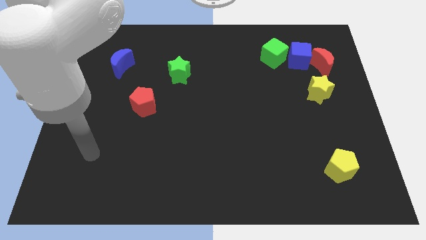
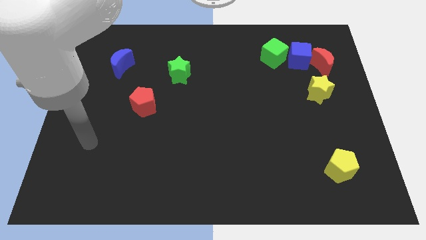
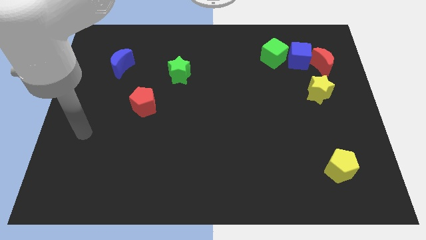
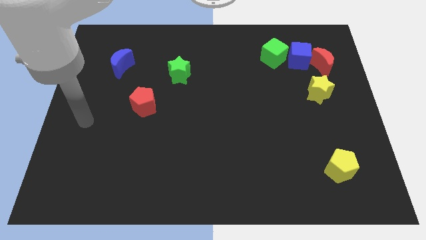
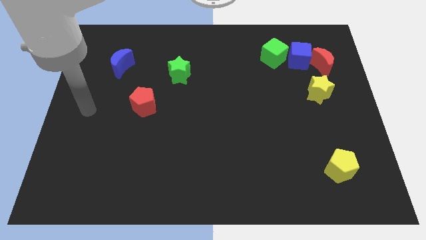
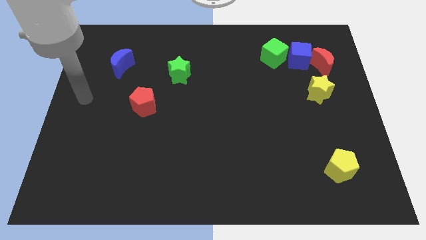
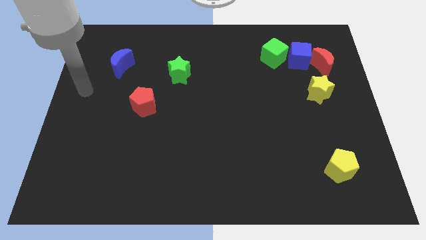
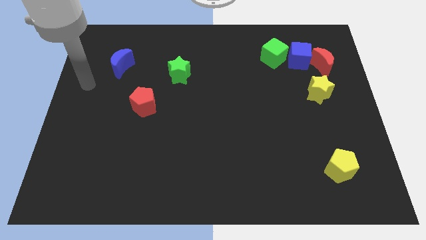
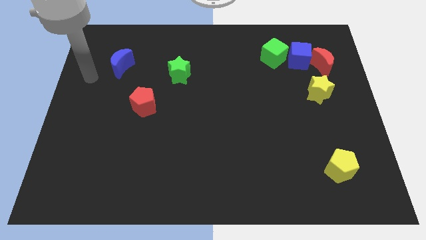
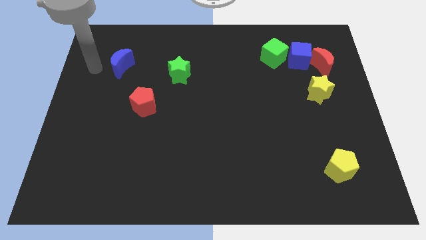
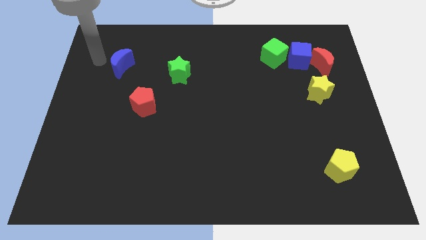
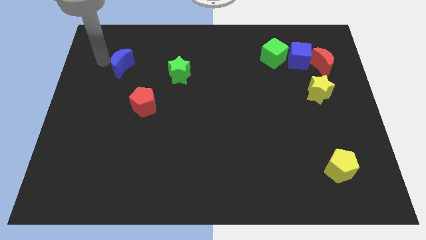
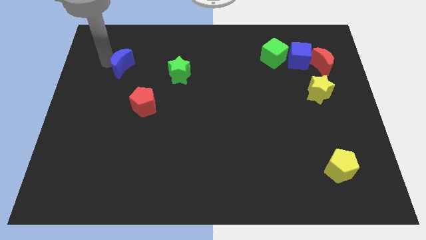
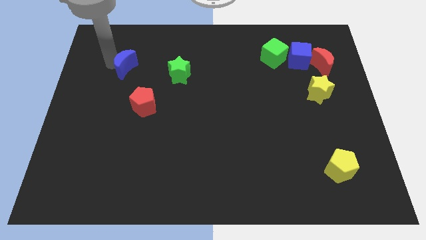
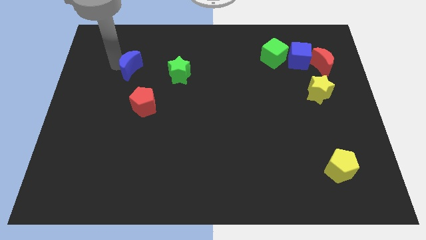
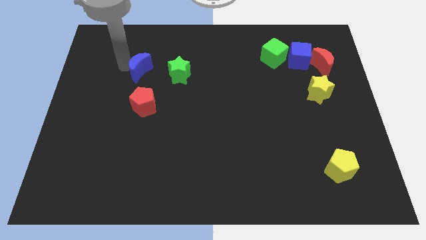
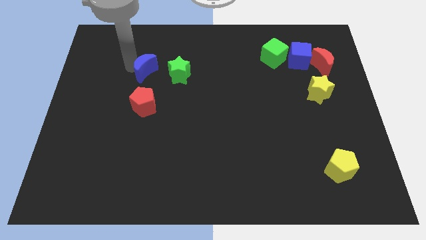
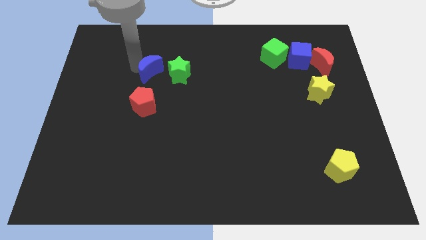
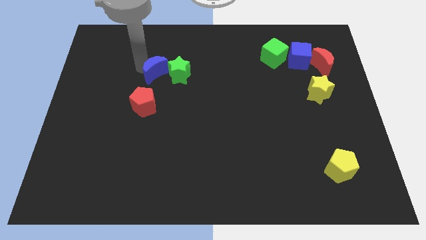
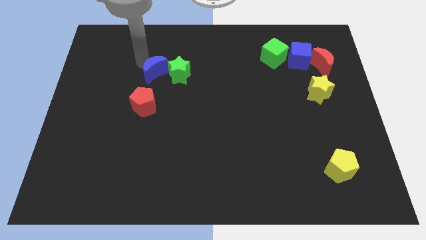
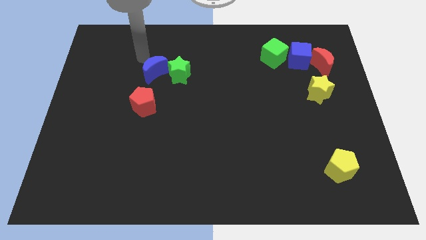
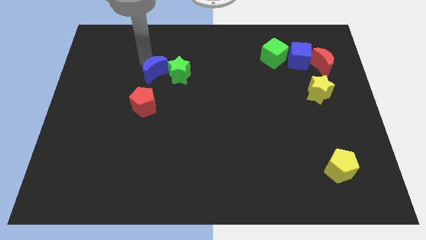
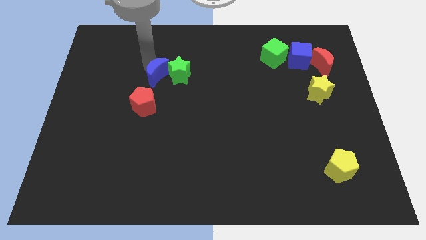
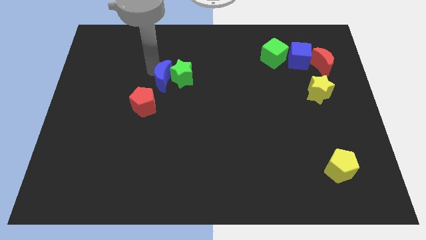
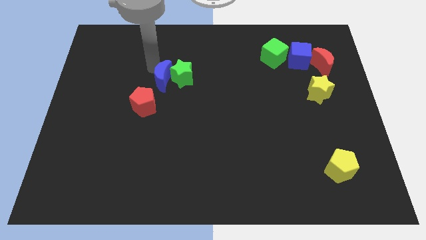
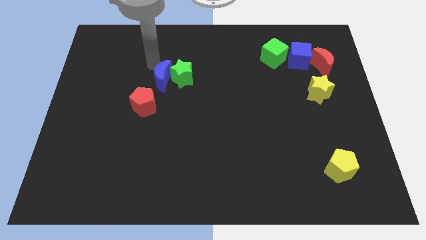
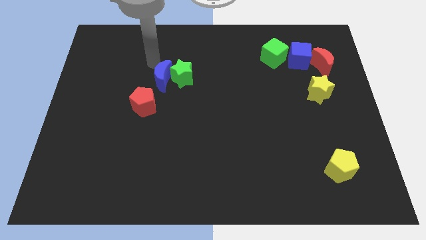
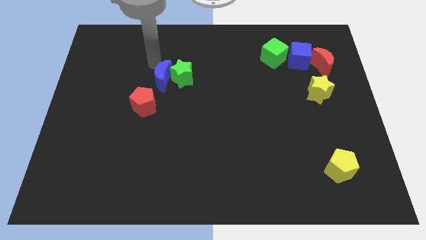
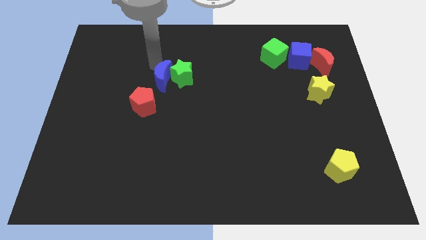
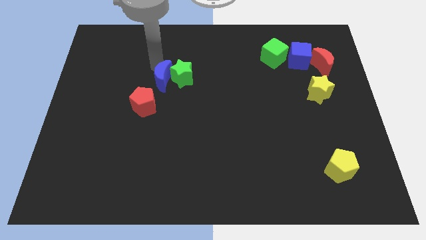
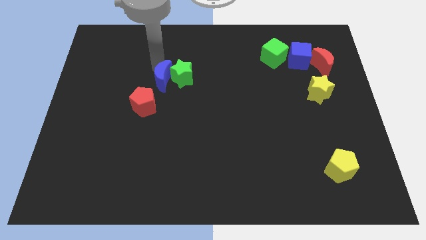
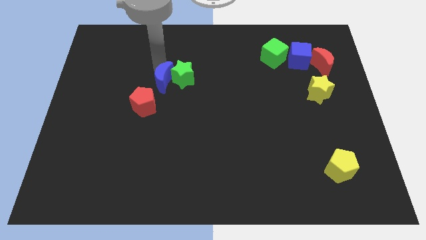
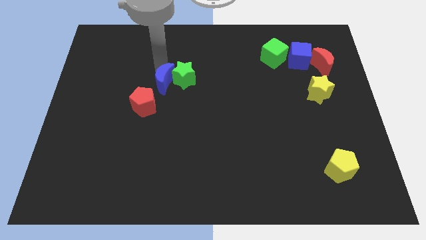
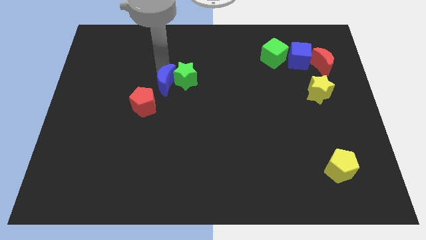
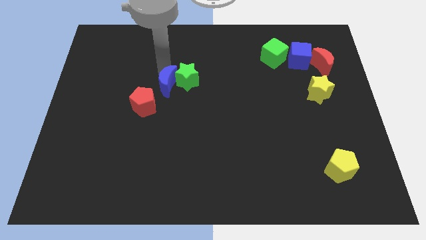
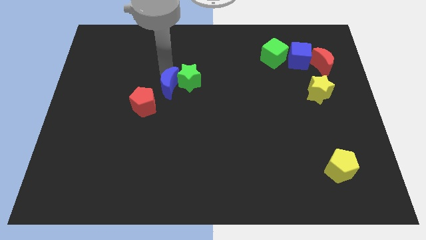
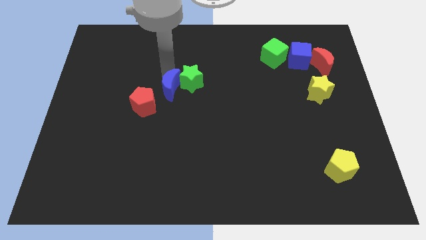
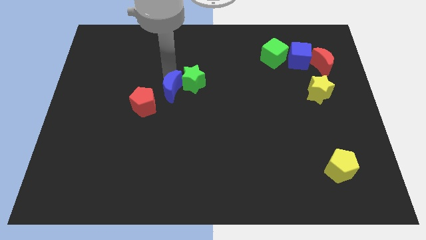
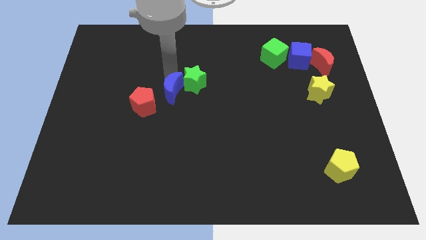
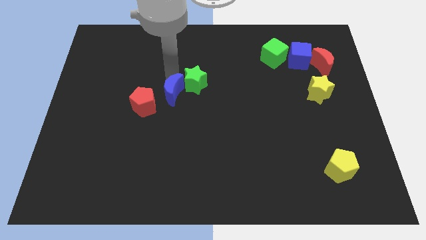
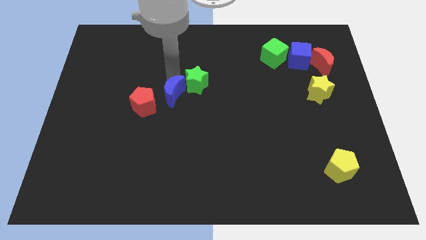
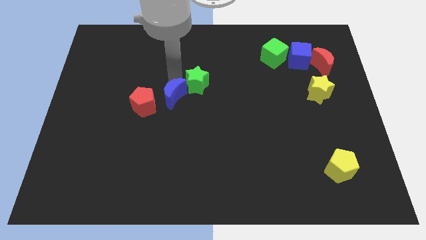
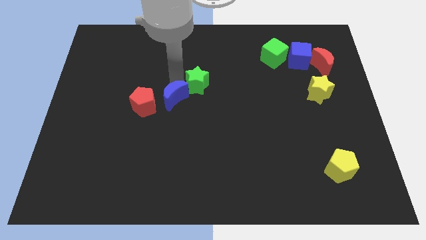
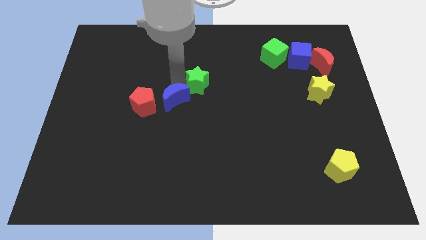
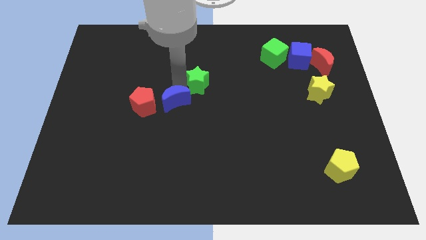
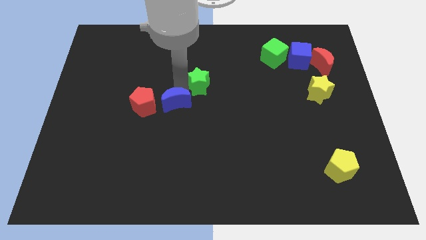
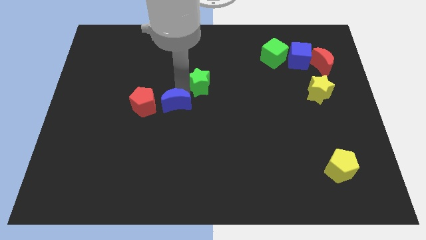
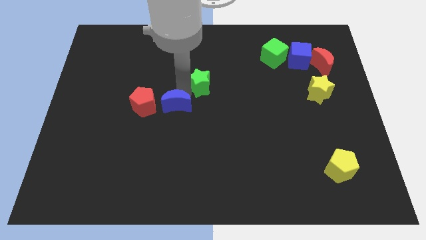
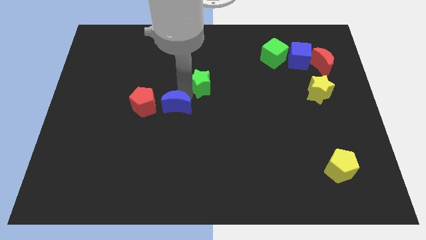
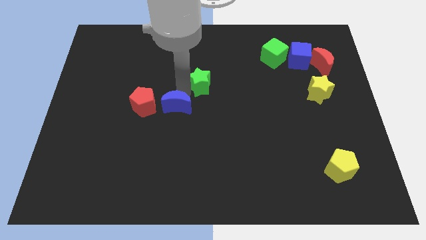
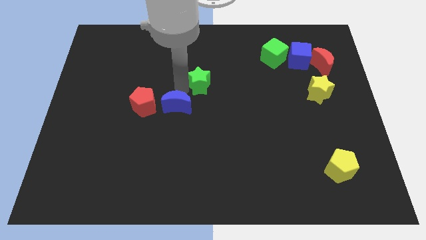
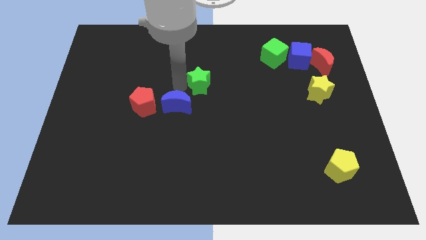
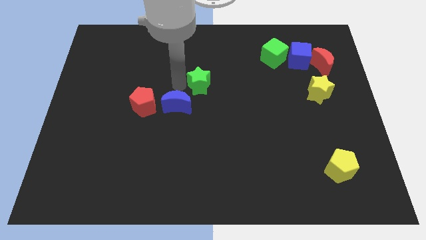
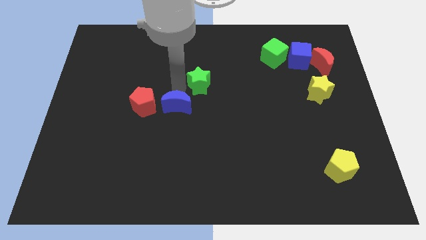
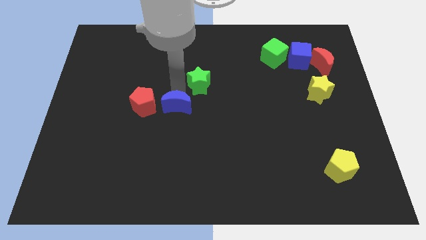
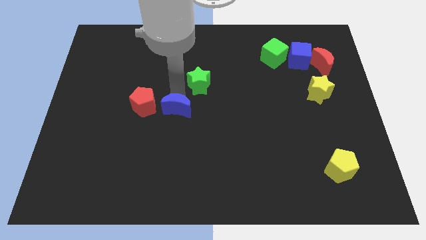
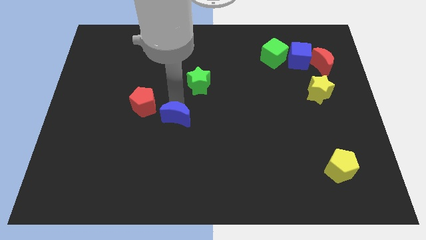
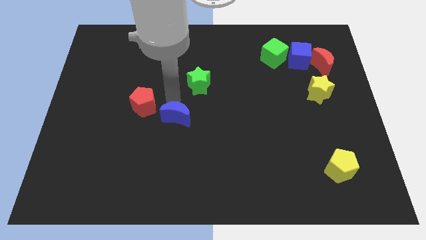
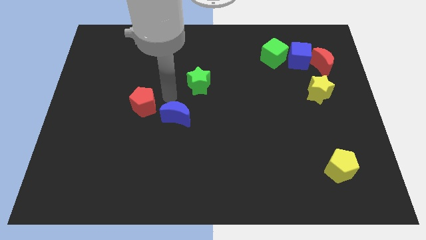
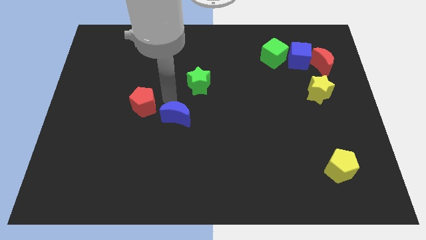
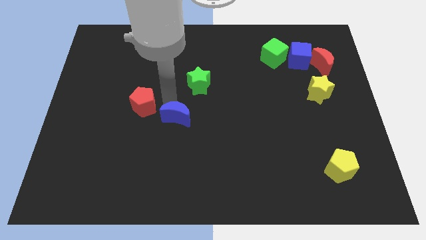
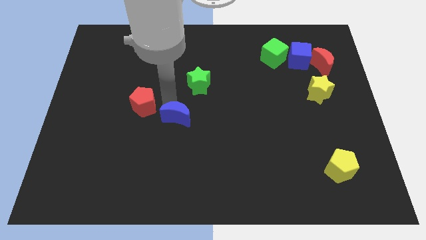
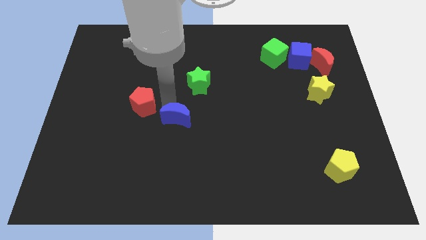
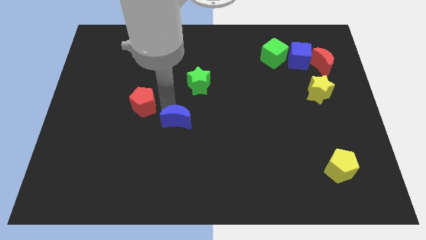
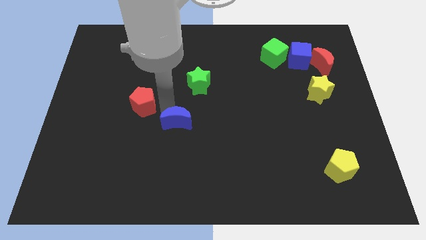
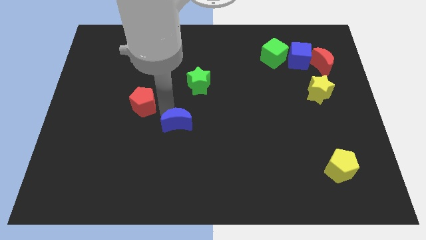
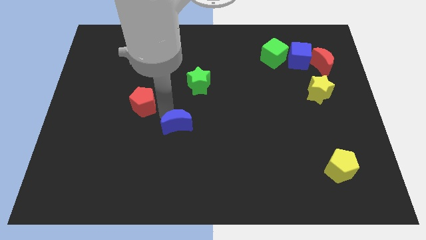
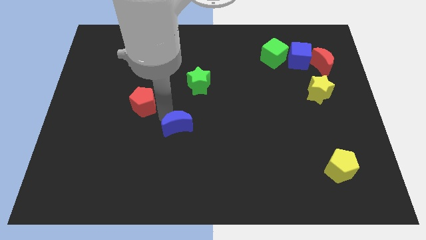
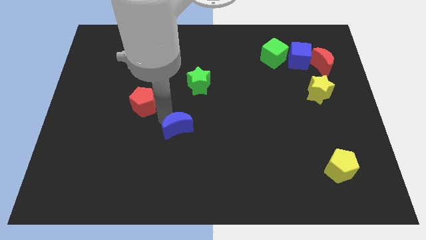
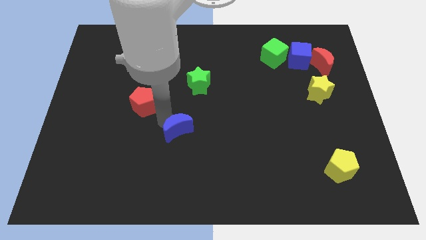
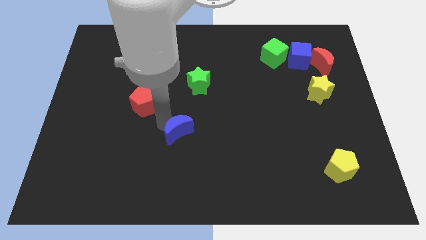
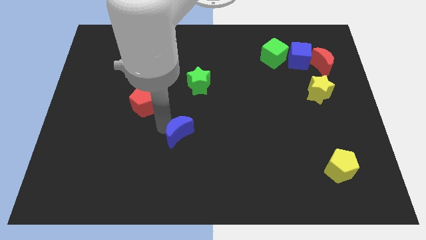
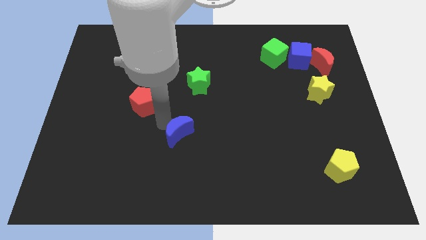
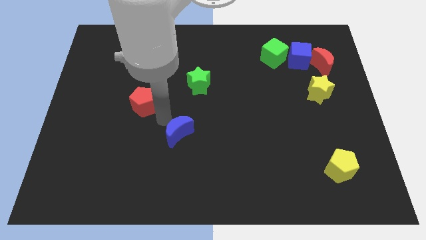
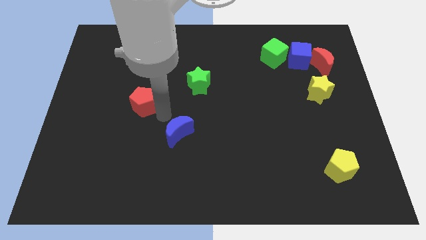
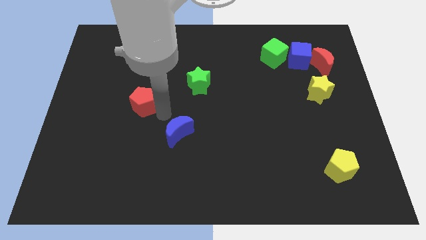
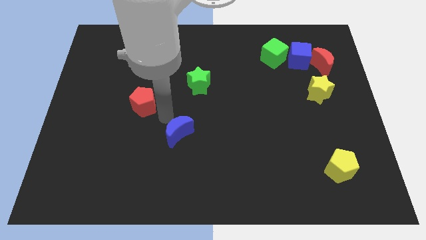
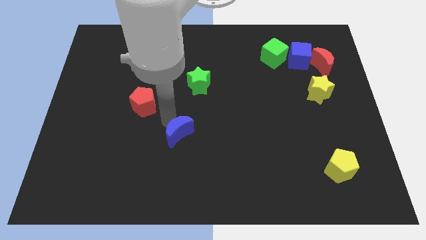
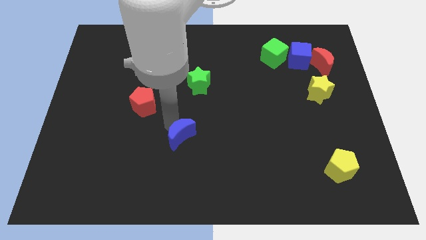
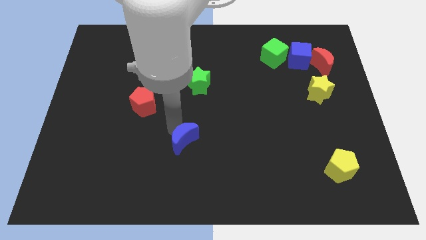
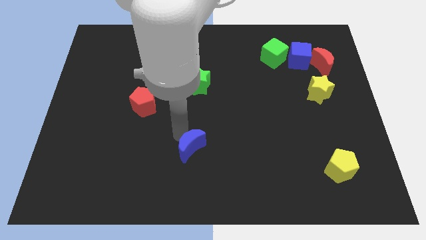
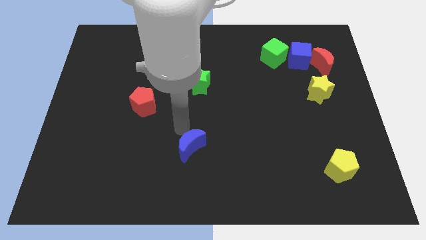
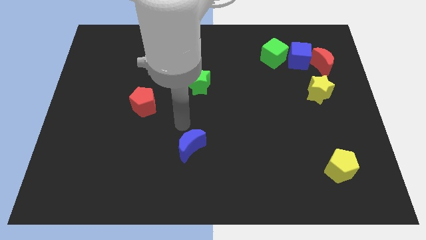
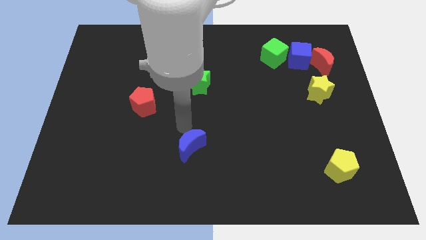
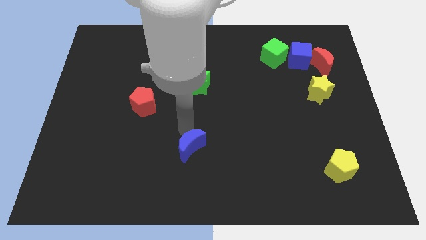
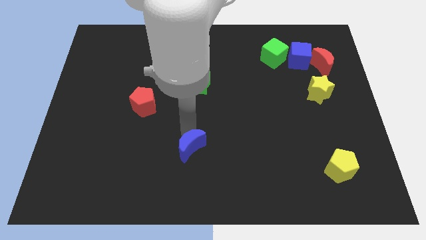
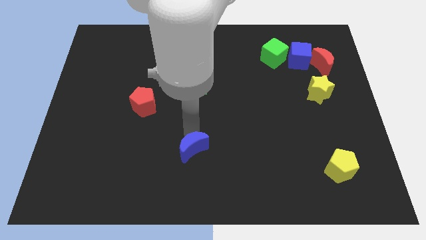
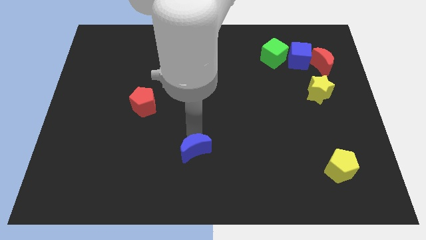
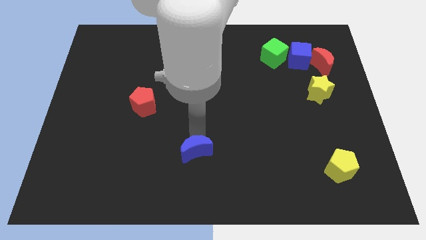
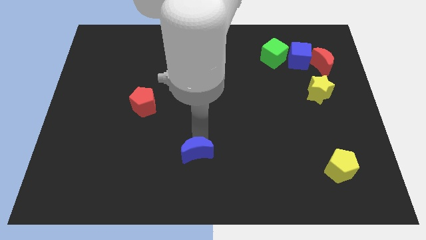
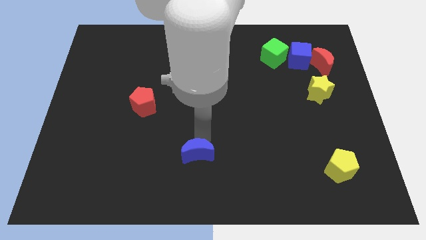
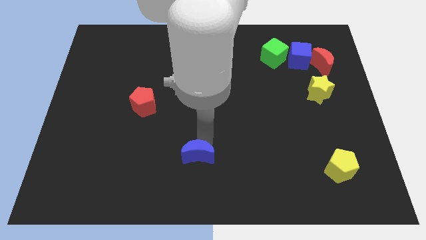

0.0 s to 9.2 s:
put the blue moon to the bottom side
